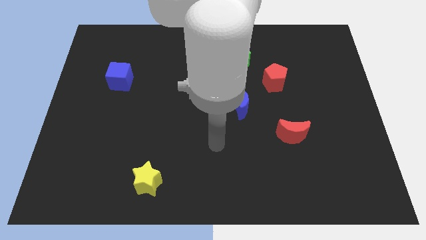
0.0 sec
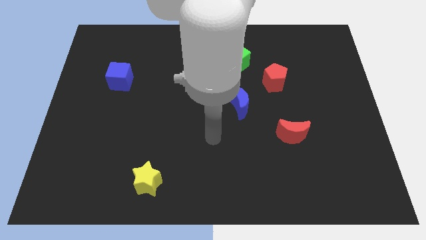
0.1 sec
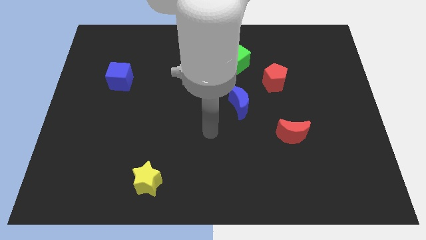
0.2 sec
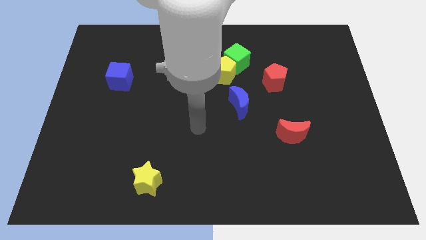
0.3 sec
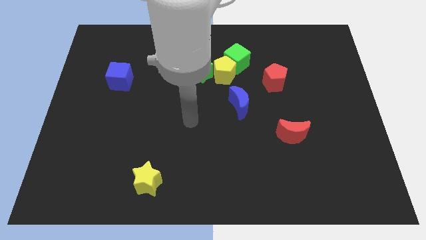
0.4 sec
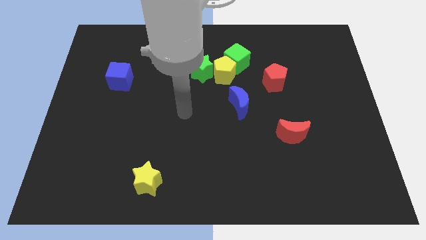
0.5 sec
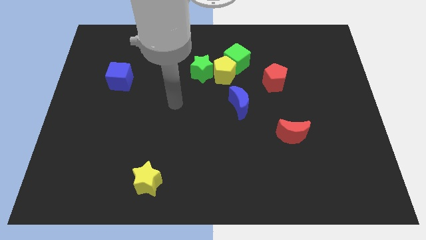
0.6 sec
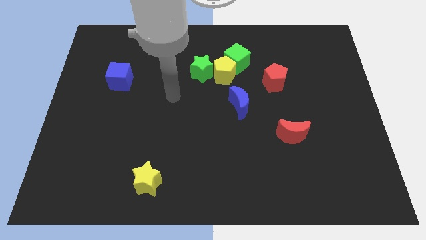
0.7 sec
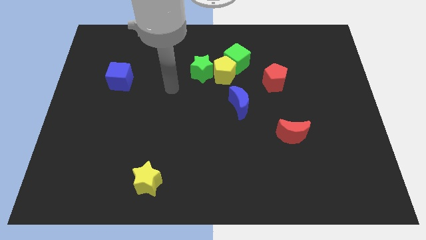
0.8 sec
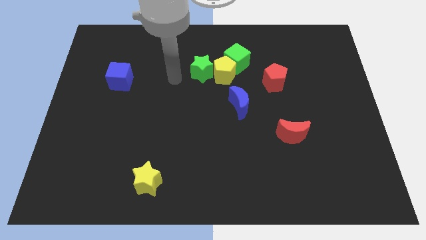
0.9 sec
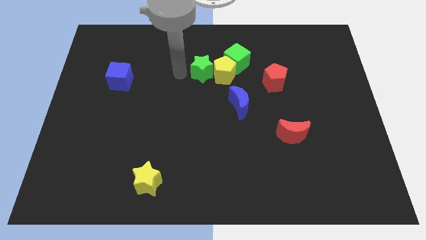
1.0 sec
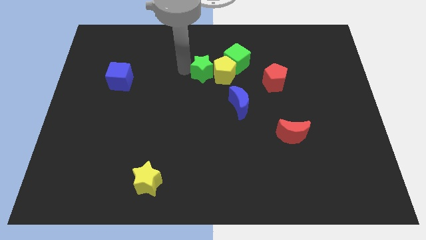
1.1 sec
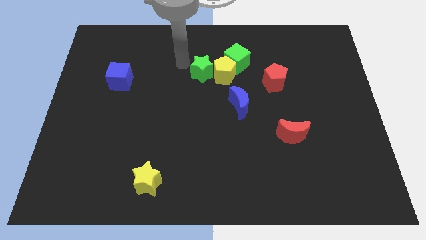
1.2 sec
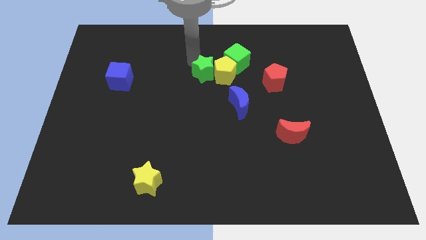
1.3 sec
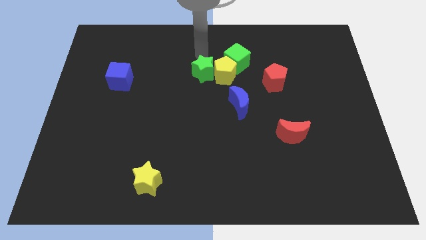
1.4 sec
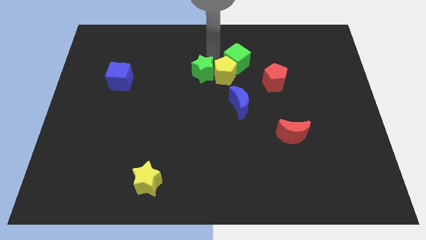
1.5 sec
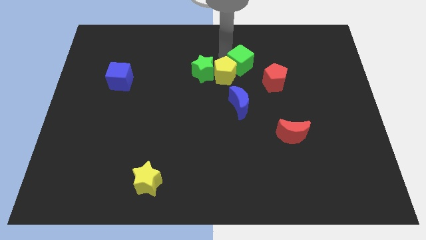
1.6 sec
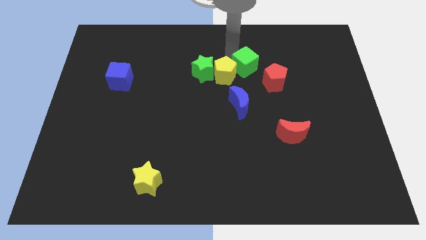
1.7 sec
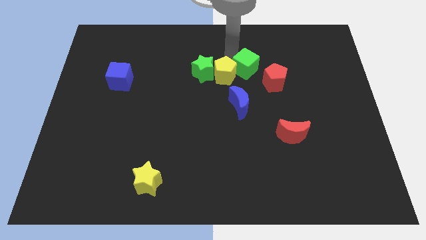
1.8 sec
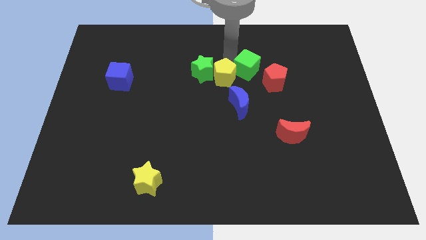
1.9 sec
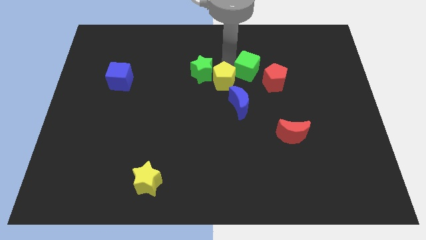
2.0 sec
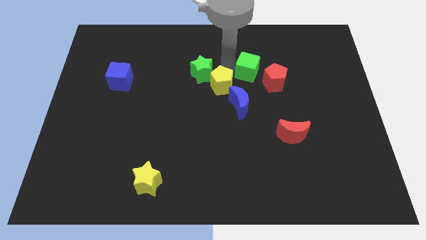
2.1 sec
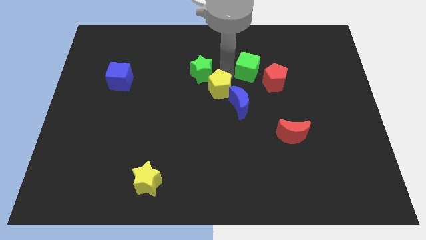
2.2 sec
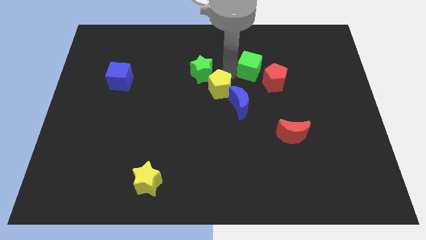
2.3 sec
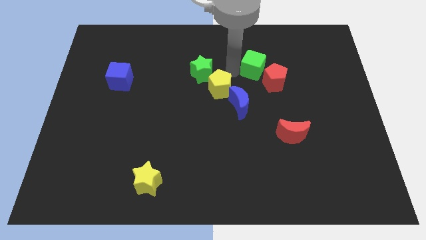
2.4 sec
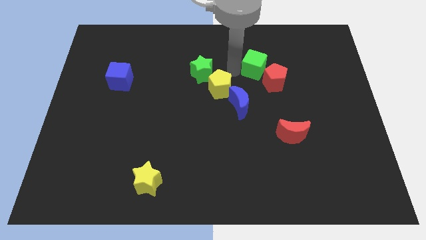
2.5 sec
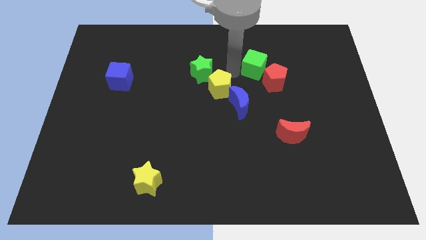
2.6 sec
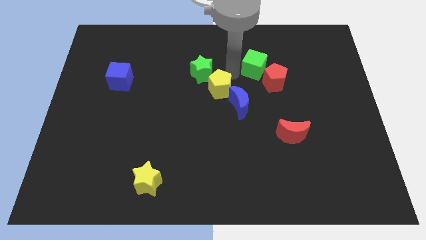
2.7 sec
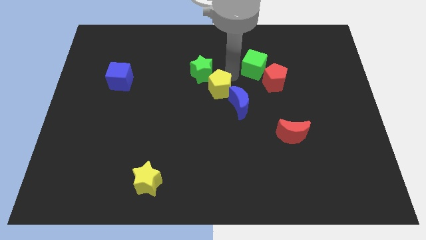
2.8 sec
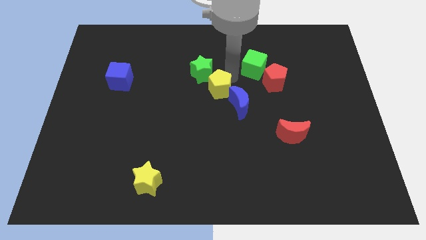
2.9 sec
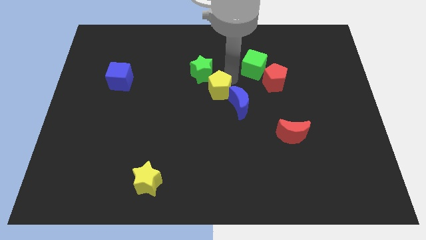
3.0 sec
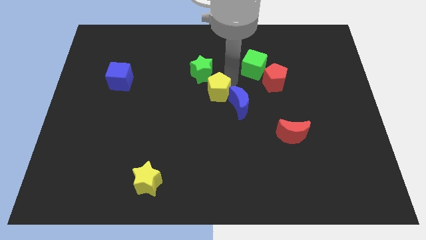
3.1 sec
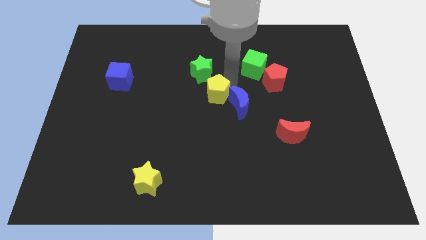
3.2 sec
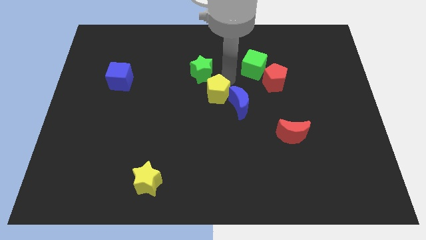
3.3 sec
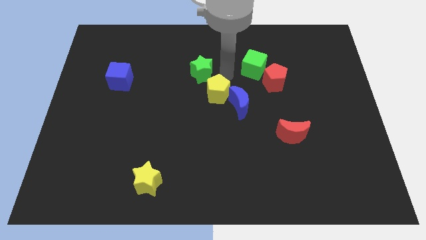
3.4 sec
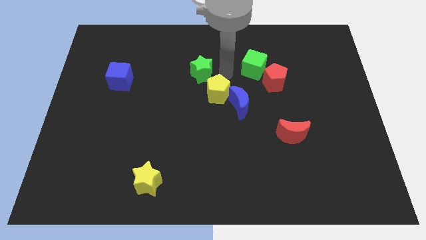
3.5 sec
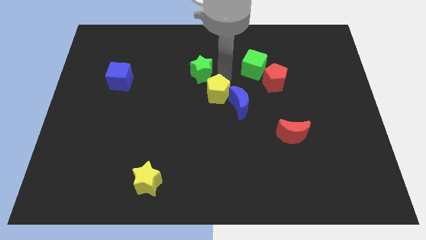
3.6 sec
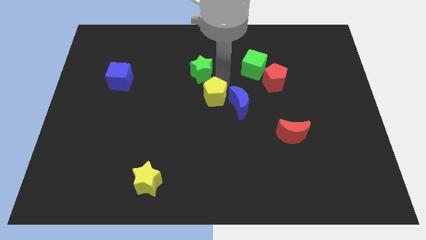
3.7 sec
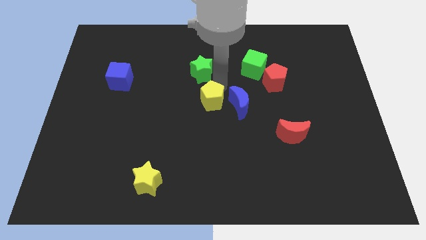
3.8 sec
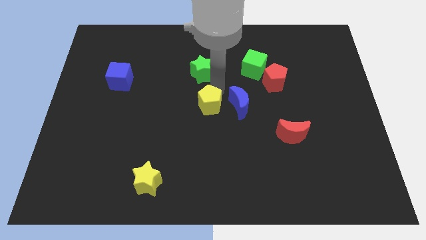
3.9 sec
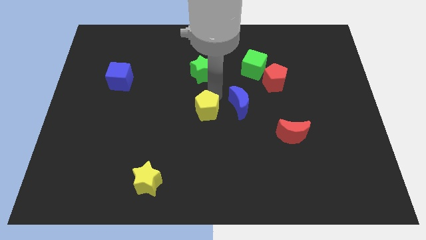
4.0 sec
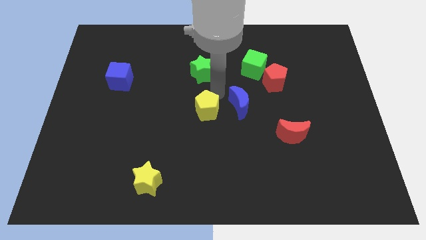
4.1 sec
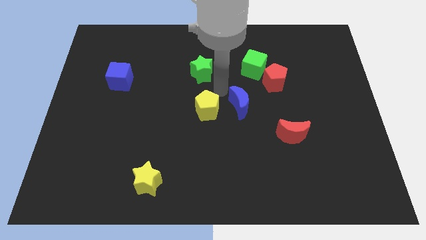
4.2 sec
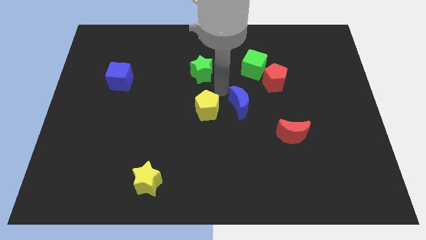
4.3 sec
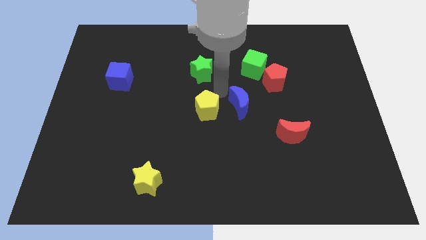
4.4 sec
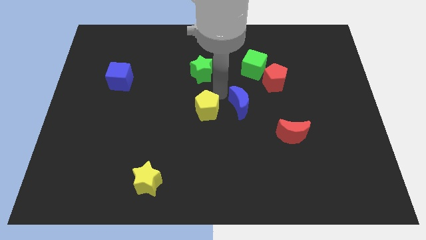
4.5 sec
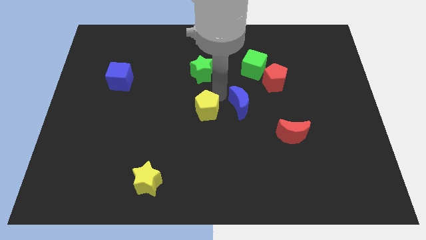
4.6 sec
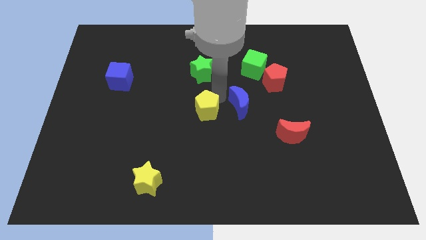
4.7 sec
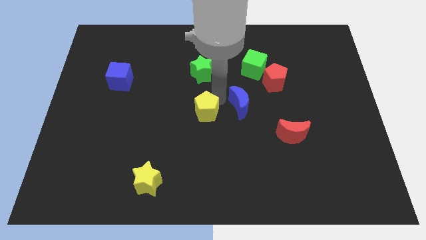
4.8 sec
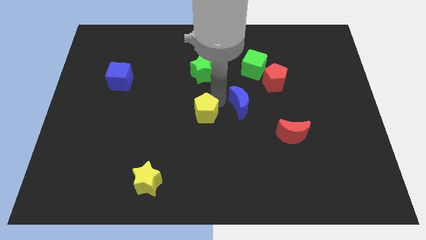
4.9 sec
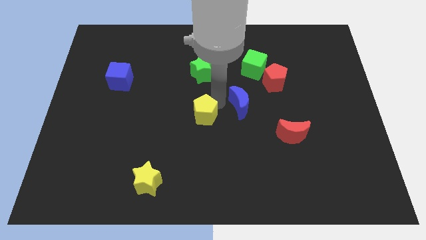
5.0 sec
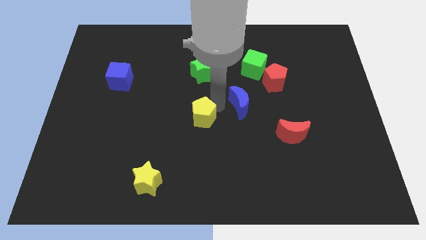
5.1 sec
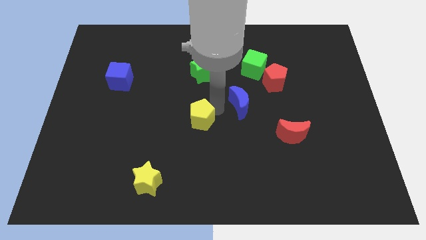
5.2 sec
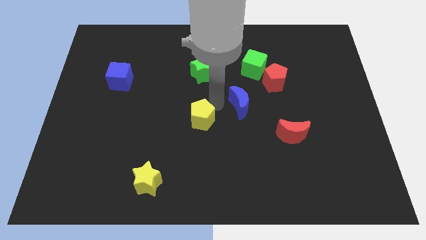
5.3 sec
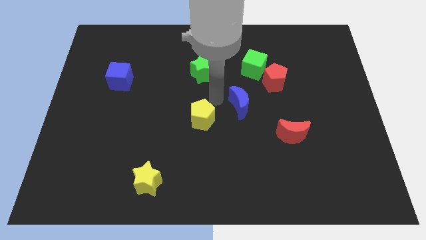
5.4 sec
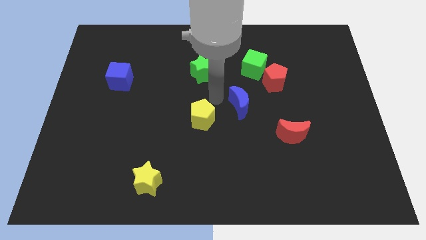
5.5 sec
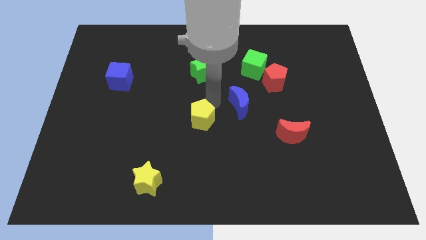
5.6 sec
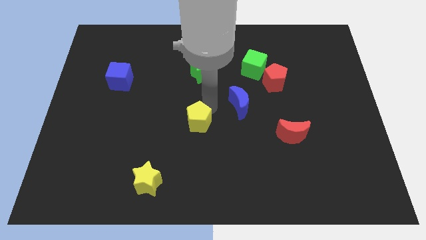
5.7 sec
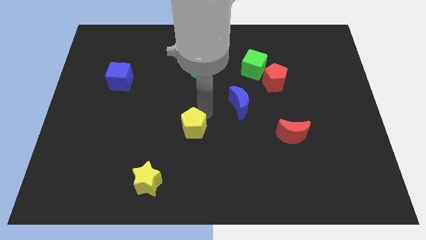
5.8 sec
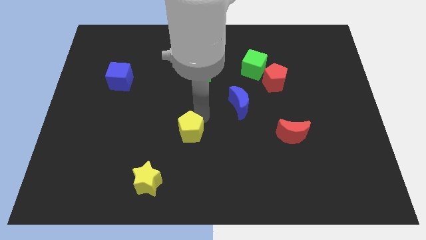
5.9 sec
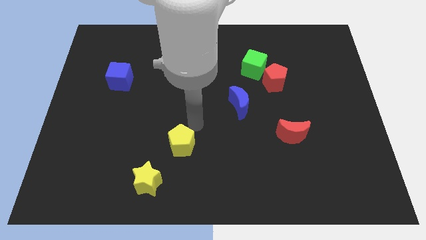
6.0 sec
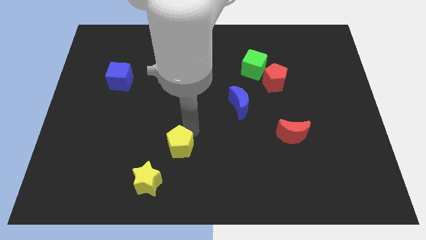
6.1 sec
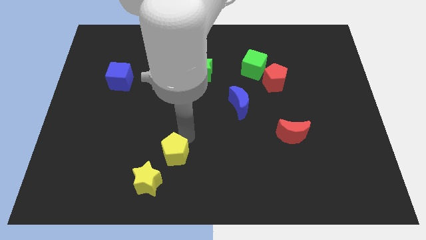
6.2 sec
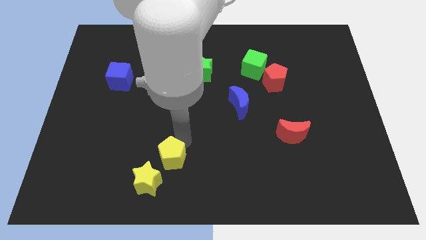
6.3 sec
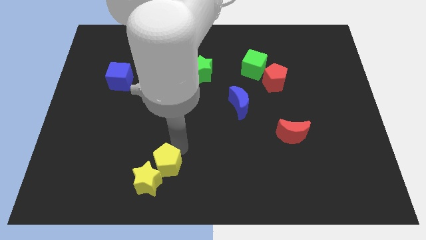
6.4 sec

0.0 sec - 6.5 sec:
slide the yellow pentagon close to the yellow star

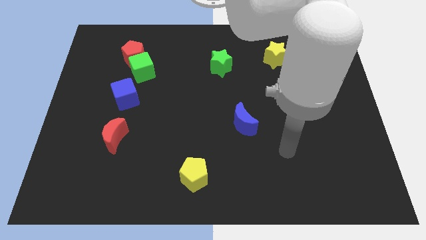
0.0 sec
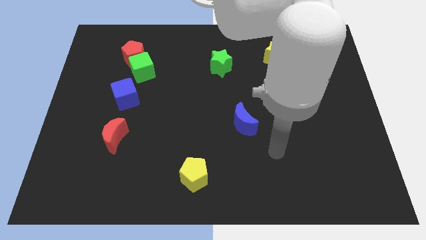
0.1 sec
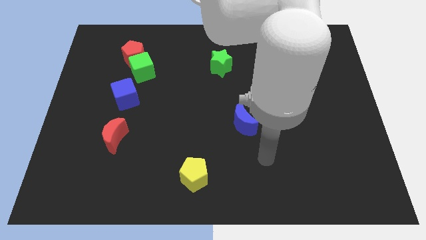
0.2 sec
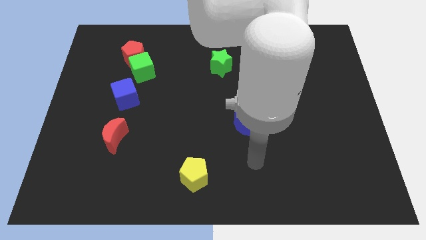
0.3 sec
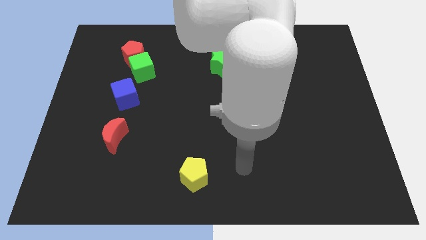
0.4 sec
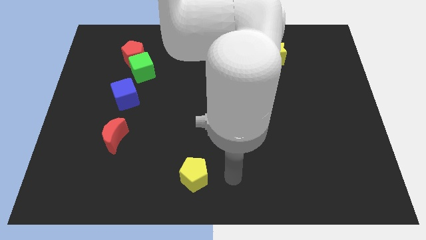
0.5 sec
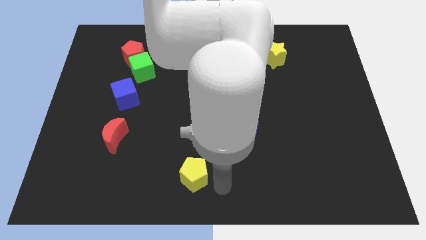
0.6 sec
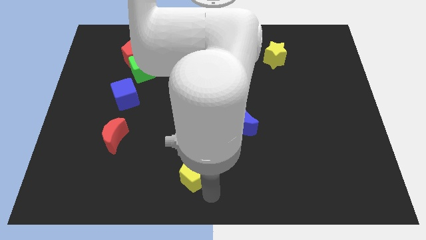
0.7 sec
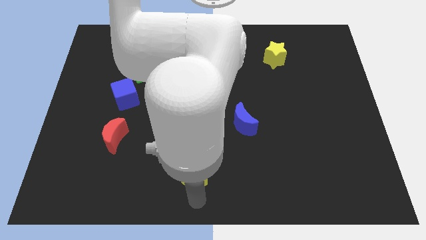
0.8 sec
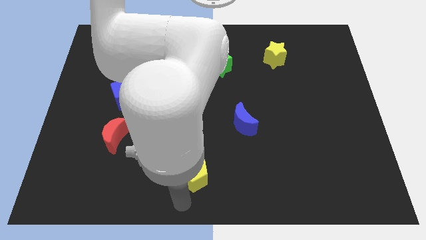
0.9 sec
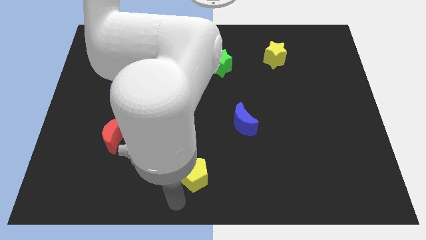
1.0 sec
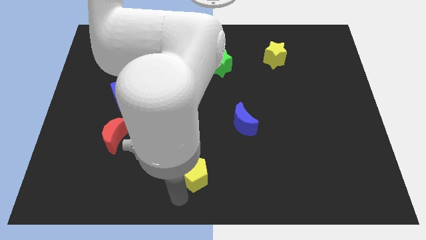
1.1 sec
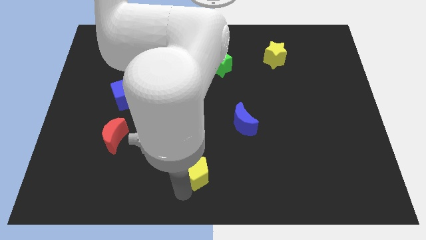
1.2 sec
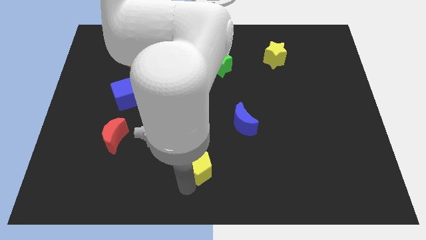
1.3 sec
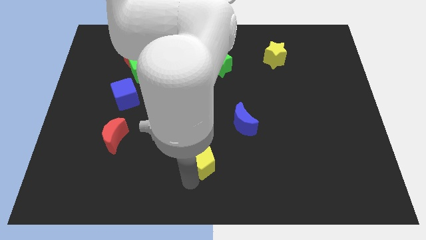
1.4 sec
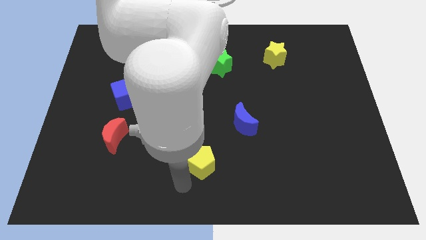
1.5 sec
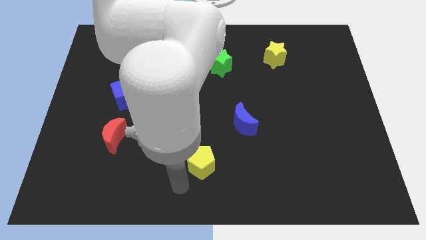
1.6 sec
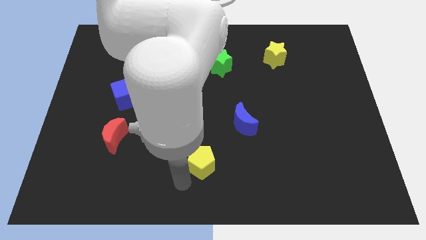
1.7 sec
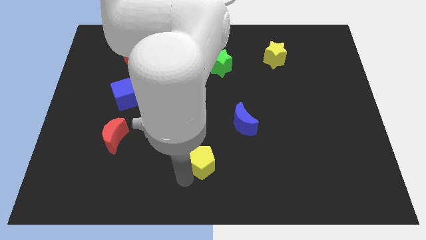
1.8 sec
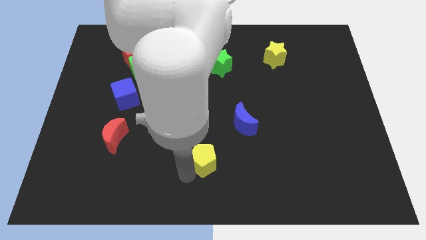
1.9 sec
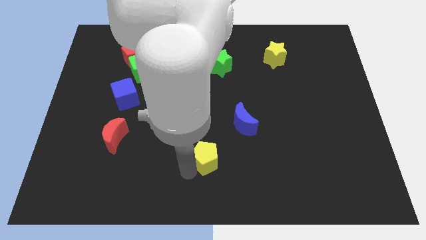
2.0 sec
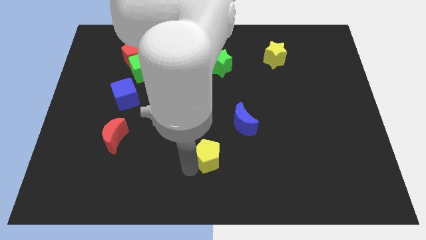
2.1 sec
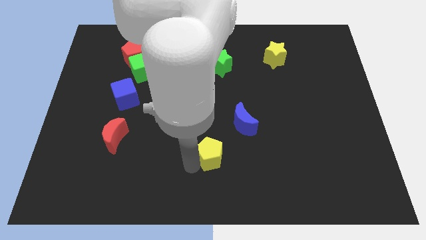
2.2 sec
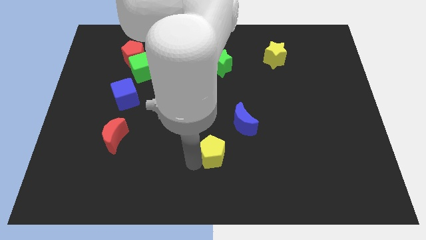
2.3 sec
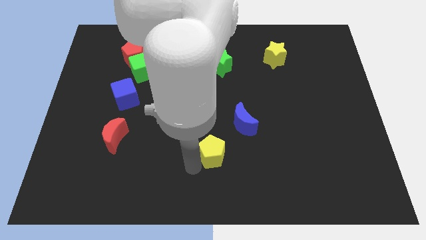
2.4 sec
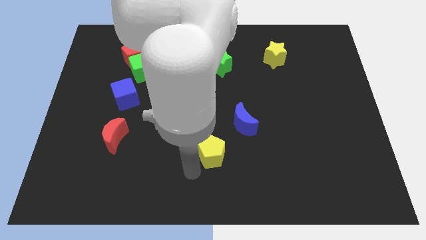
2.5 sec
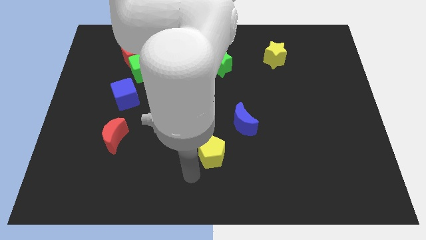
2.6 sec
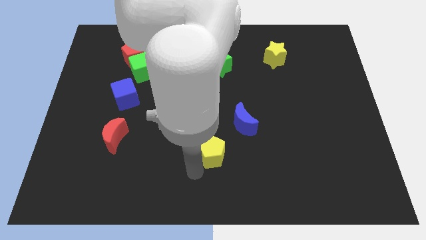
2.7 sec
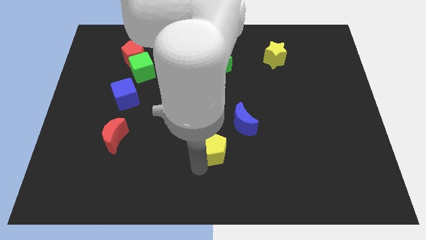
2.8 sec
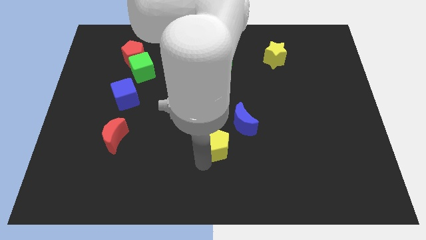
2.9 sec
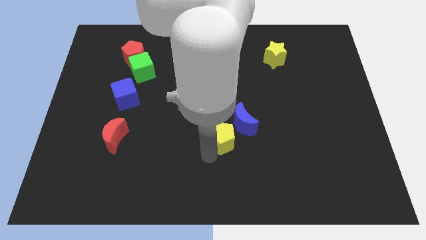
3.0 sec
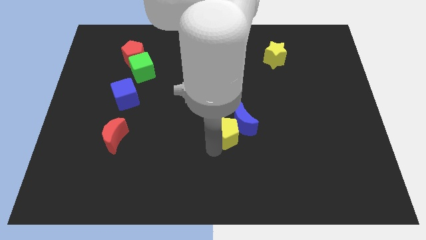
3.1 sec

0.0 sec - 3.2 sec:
push the yellow pentagon next to the blue moon
